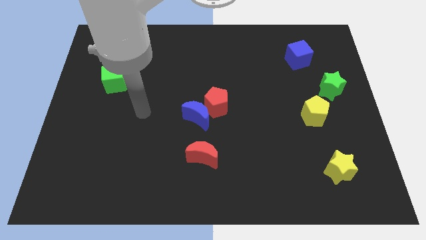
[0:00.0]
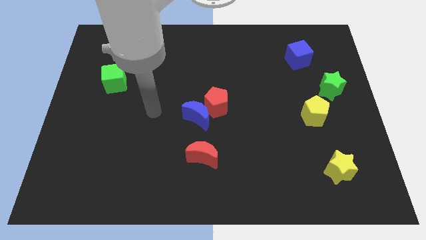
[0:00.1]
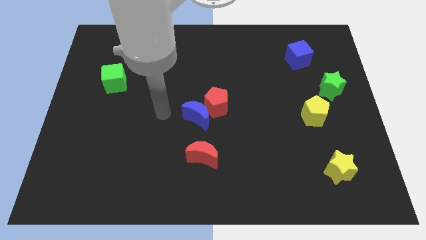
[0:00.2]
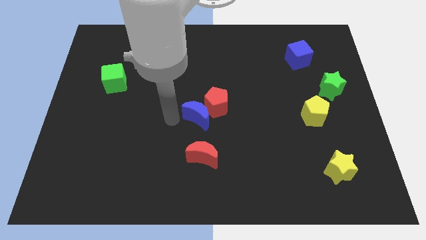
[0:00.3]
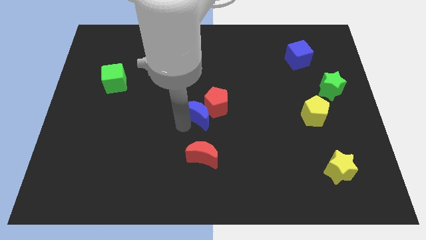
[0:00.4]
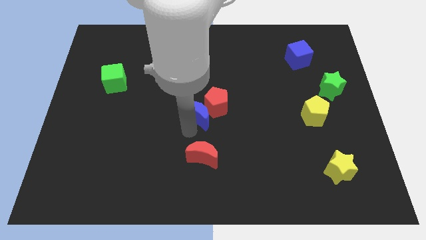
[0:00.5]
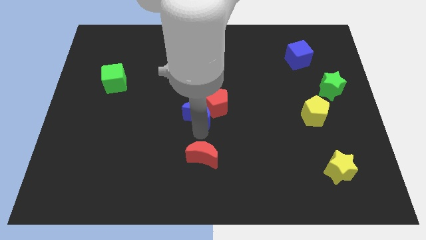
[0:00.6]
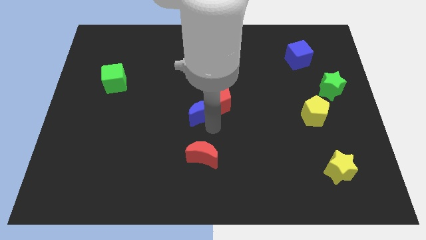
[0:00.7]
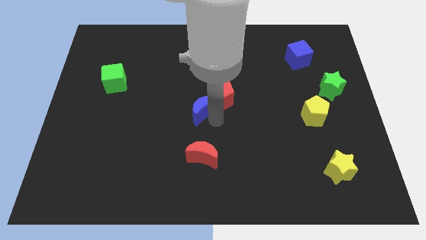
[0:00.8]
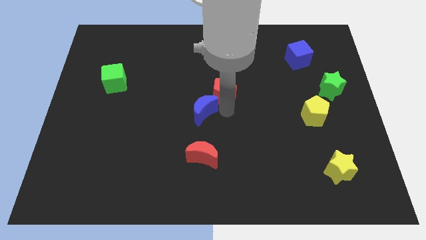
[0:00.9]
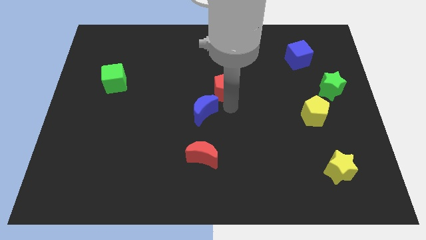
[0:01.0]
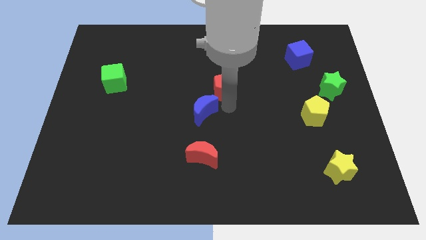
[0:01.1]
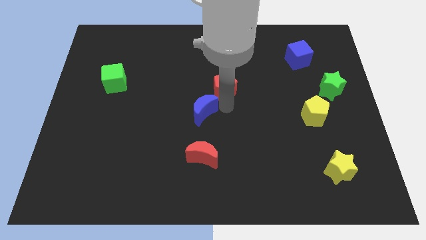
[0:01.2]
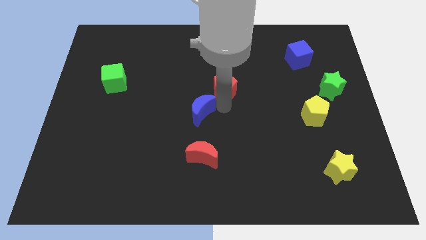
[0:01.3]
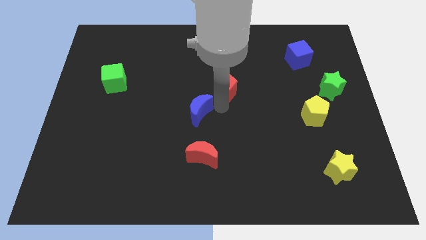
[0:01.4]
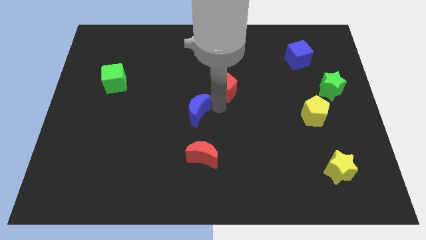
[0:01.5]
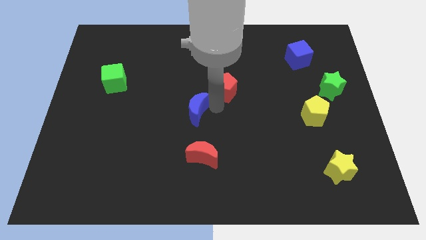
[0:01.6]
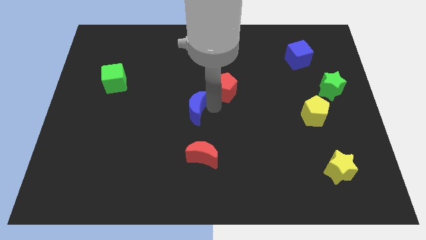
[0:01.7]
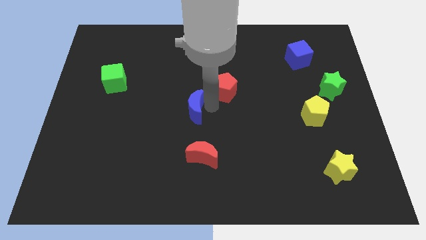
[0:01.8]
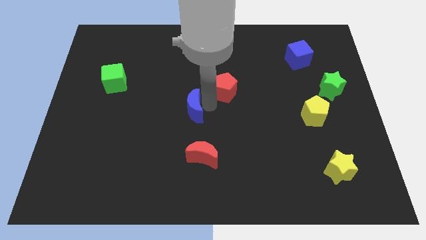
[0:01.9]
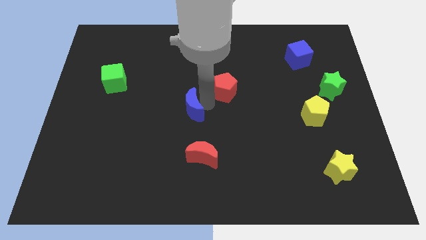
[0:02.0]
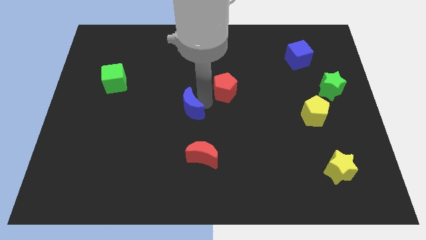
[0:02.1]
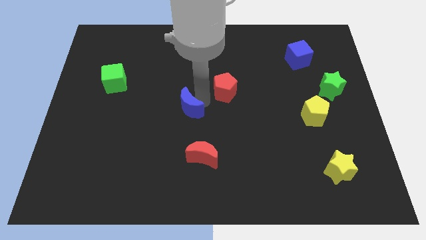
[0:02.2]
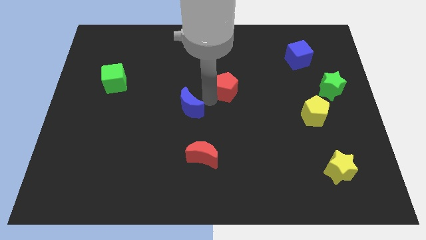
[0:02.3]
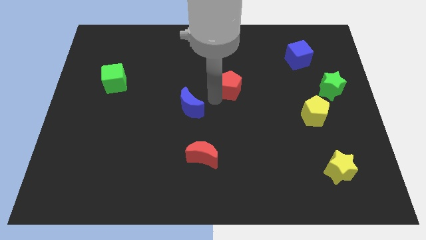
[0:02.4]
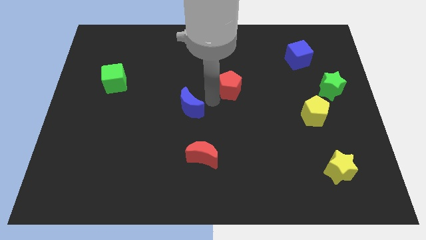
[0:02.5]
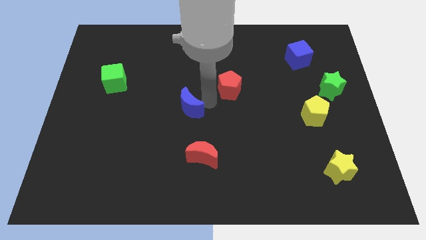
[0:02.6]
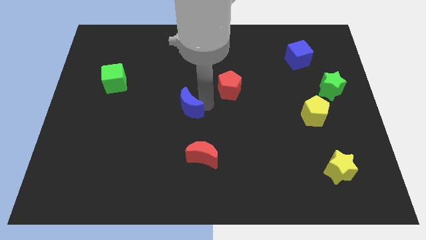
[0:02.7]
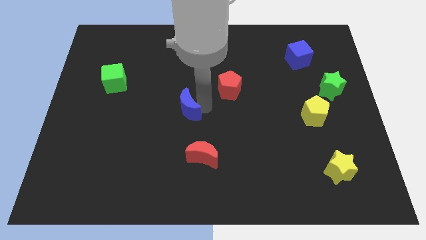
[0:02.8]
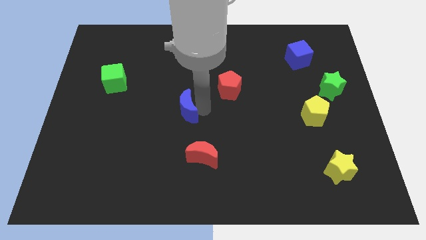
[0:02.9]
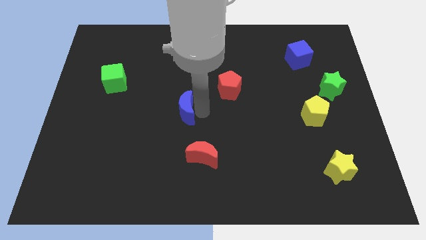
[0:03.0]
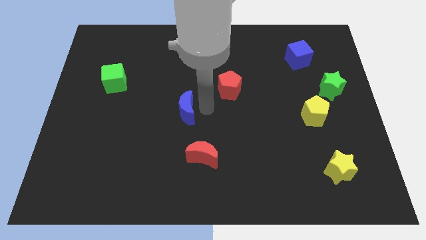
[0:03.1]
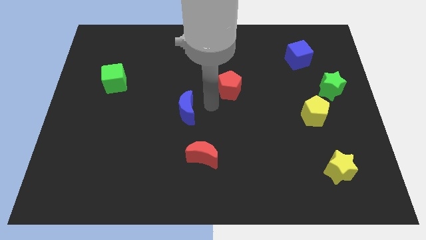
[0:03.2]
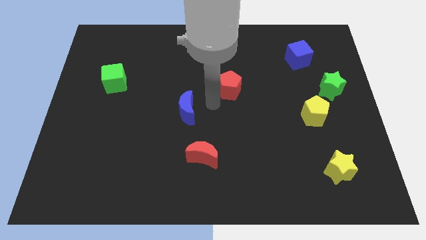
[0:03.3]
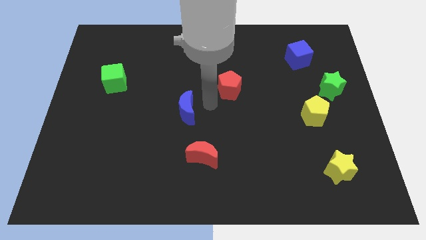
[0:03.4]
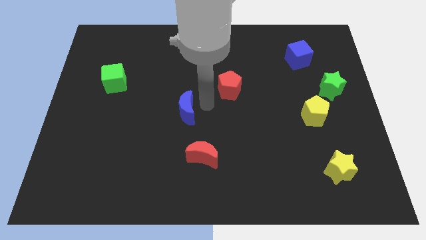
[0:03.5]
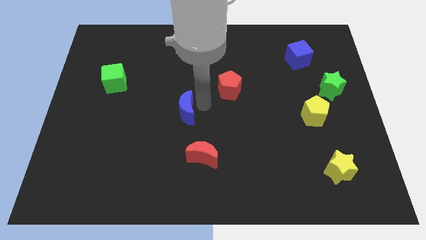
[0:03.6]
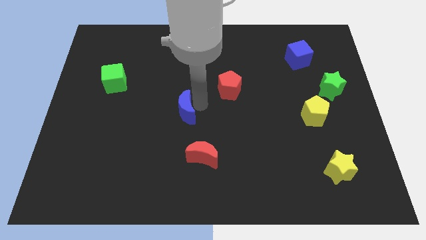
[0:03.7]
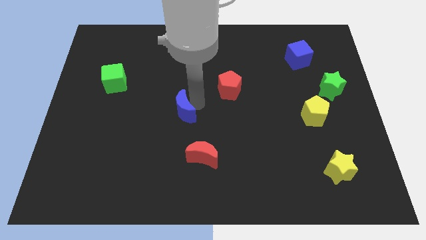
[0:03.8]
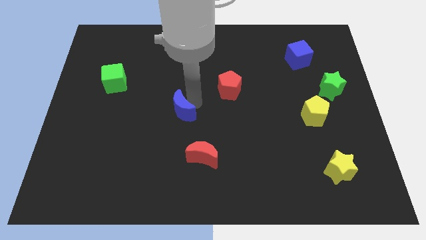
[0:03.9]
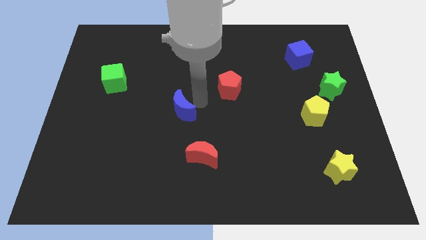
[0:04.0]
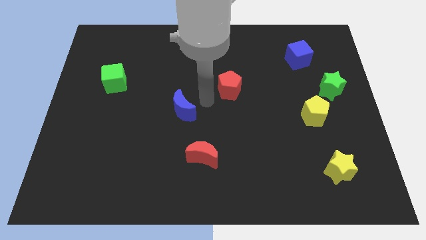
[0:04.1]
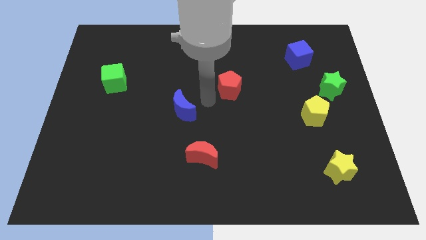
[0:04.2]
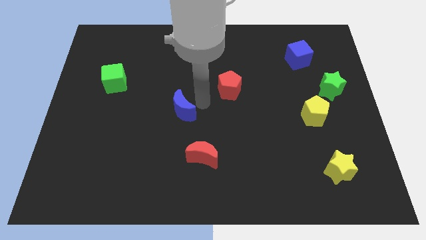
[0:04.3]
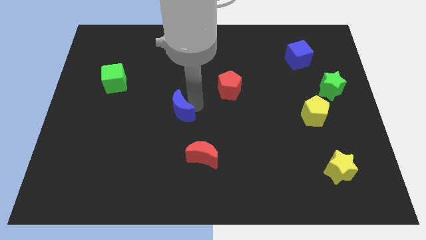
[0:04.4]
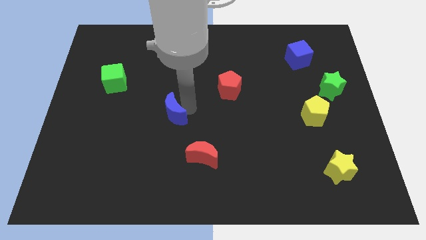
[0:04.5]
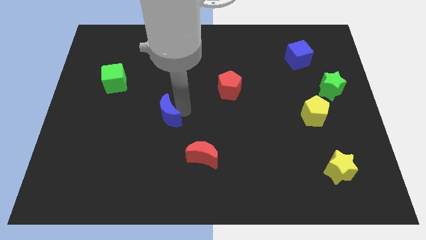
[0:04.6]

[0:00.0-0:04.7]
move the blue moon somewhat to the left

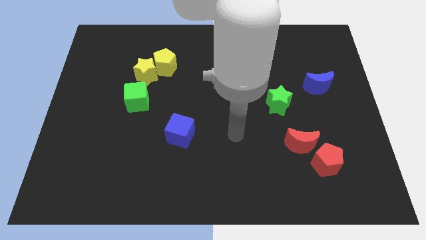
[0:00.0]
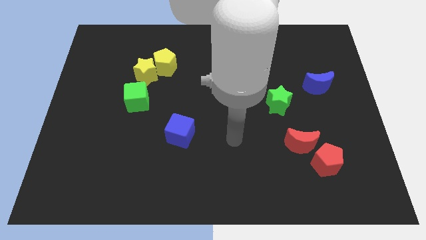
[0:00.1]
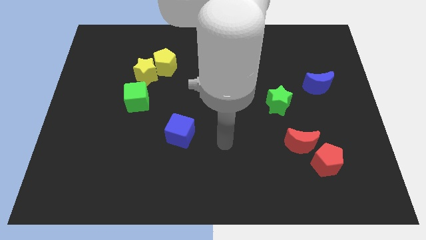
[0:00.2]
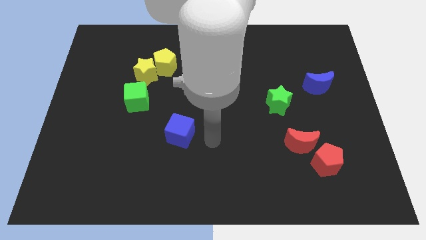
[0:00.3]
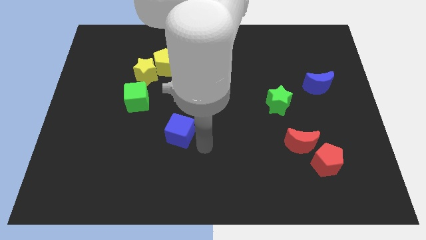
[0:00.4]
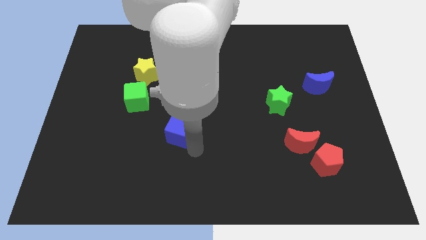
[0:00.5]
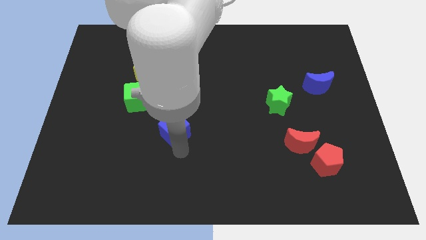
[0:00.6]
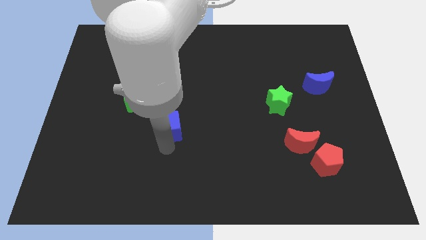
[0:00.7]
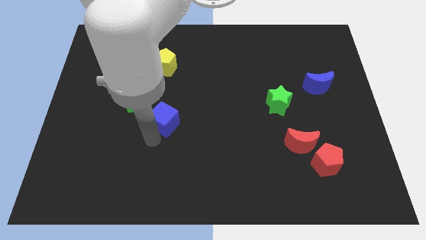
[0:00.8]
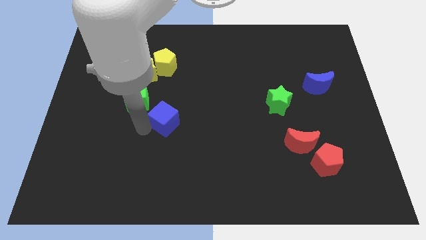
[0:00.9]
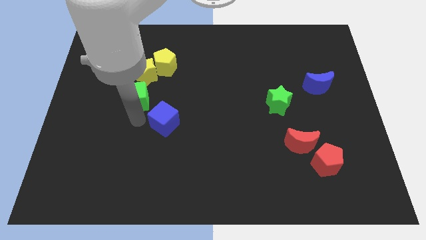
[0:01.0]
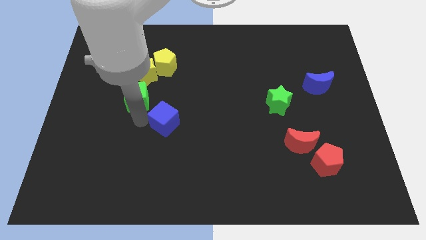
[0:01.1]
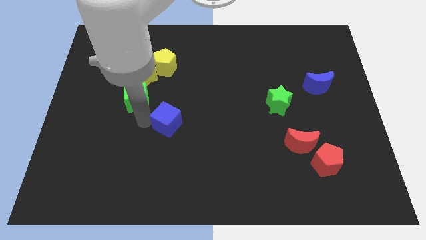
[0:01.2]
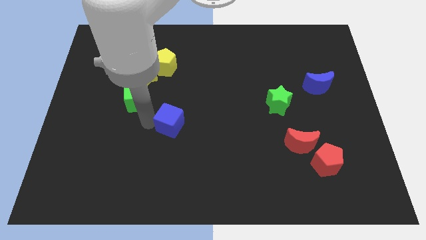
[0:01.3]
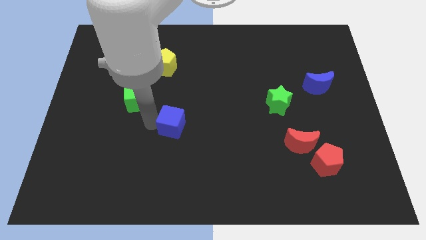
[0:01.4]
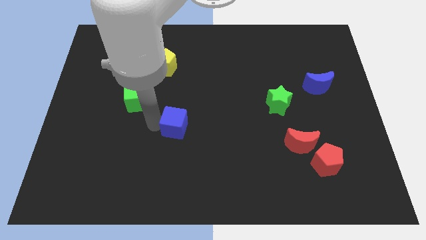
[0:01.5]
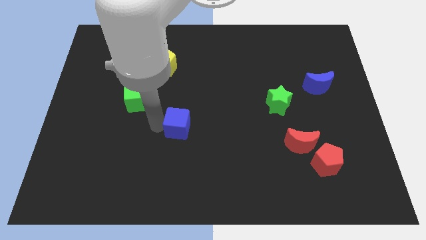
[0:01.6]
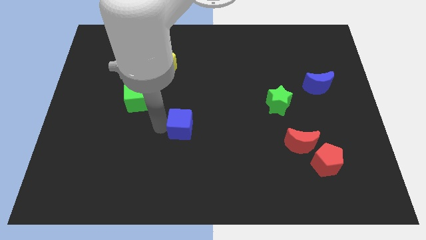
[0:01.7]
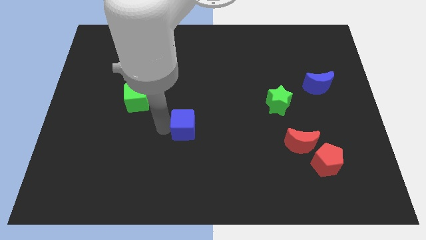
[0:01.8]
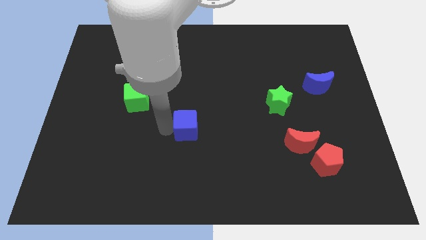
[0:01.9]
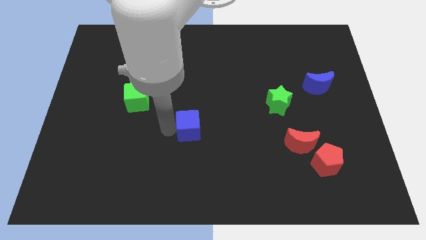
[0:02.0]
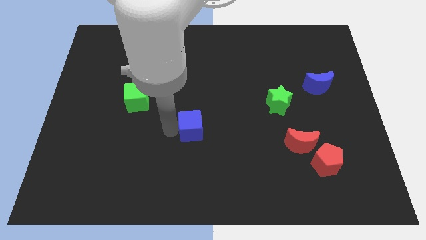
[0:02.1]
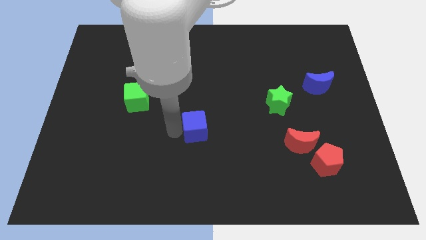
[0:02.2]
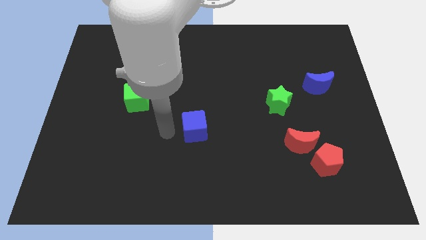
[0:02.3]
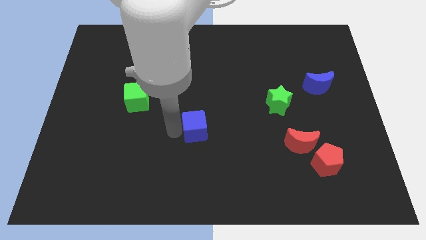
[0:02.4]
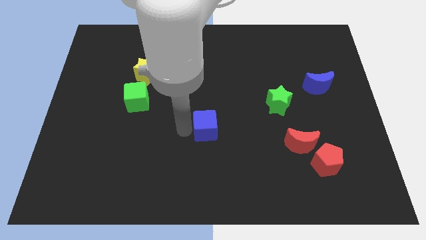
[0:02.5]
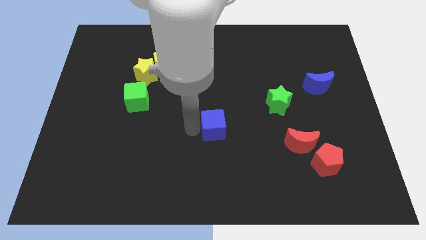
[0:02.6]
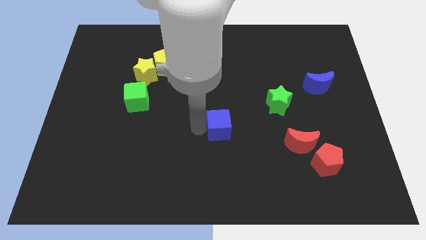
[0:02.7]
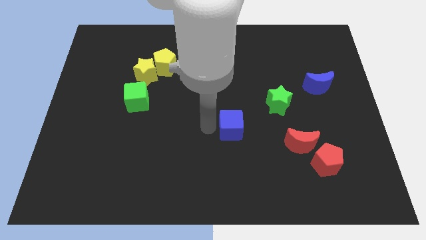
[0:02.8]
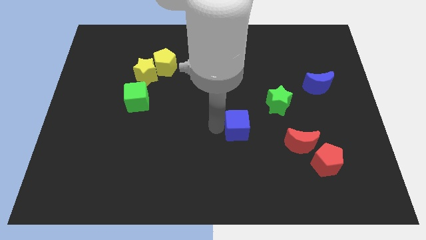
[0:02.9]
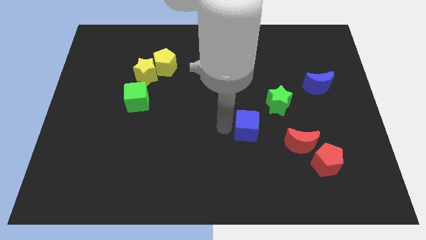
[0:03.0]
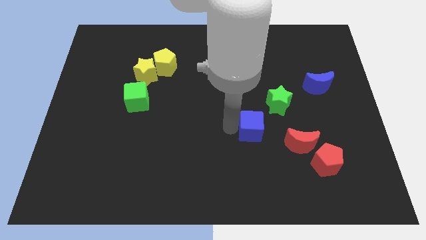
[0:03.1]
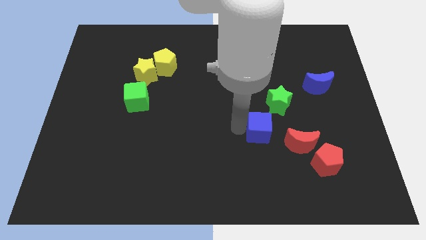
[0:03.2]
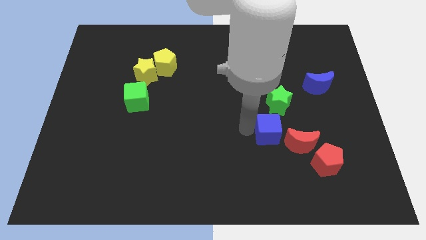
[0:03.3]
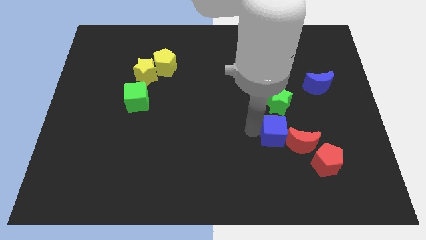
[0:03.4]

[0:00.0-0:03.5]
push the blue cube right
